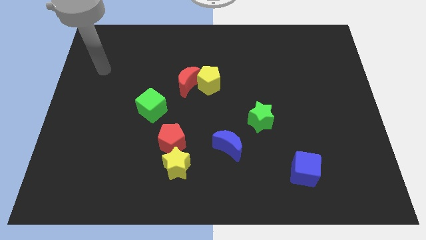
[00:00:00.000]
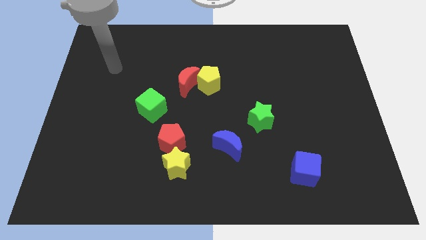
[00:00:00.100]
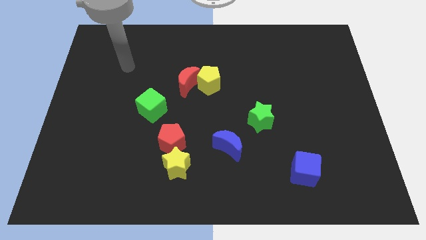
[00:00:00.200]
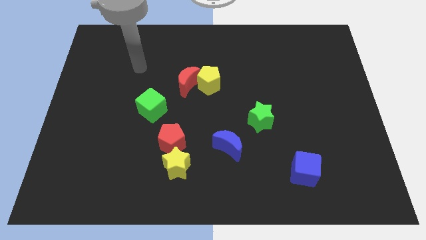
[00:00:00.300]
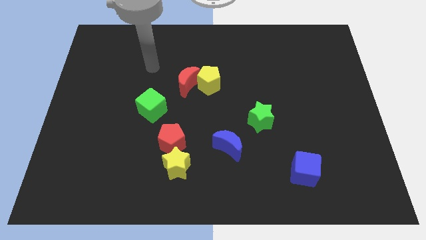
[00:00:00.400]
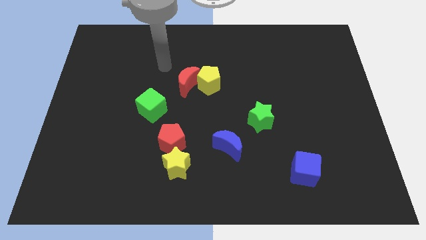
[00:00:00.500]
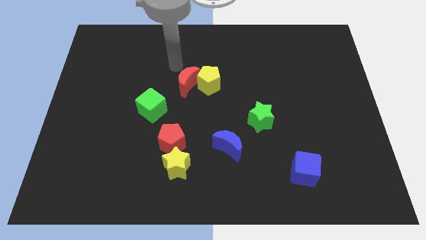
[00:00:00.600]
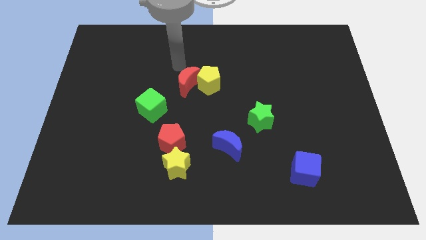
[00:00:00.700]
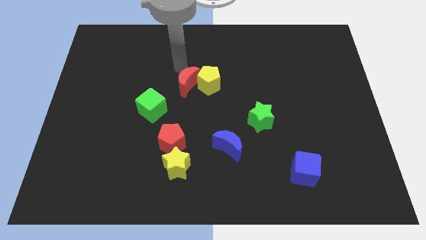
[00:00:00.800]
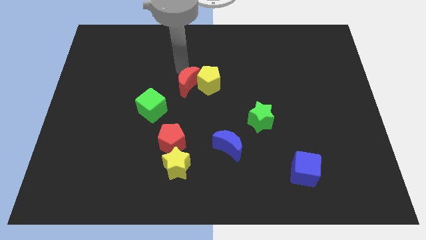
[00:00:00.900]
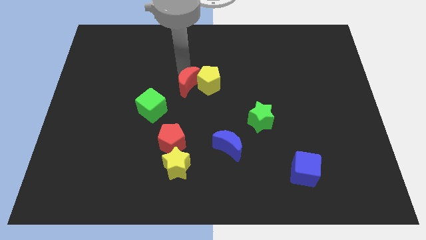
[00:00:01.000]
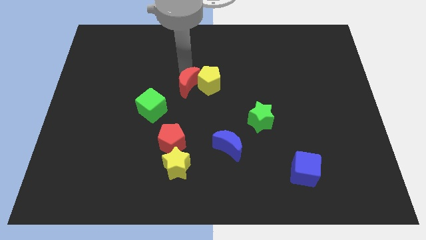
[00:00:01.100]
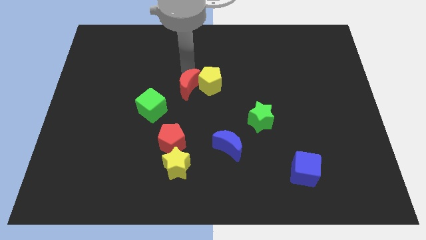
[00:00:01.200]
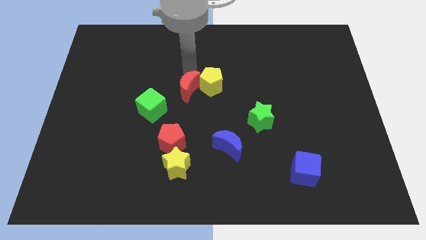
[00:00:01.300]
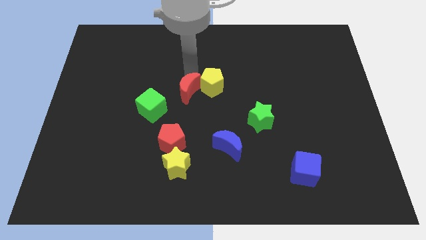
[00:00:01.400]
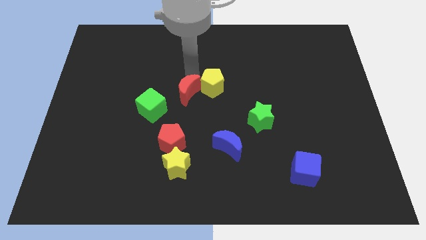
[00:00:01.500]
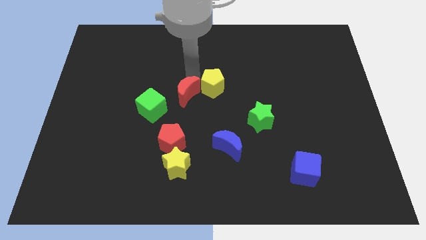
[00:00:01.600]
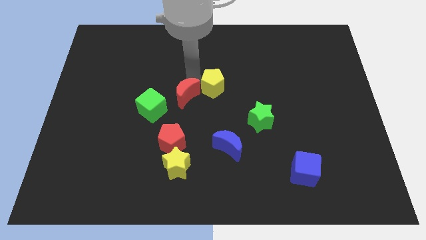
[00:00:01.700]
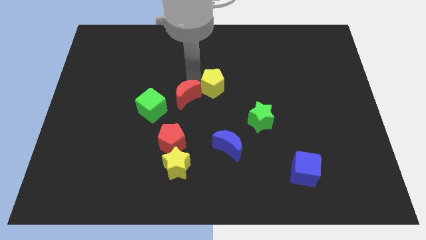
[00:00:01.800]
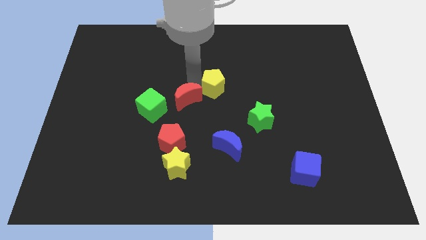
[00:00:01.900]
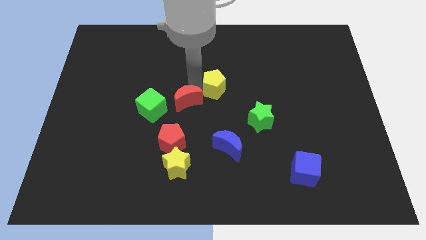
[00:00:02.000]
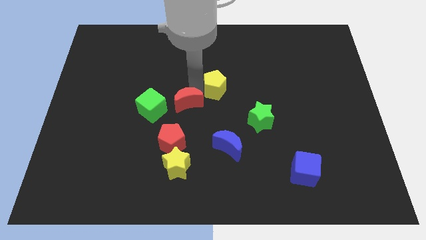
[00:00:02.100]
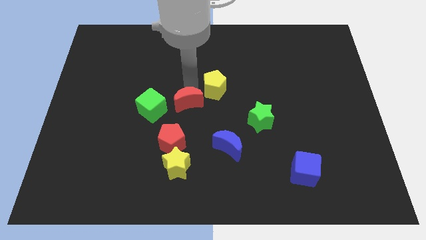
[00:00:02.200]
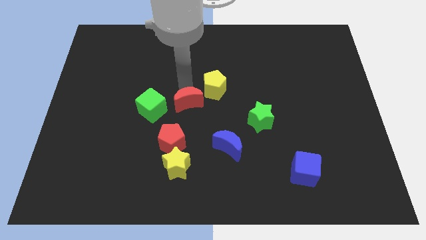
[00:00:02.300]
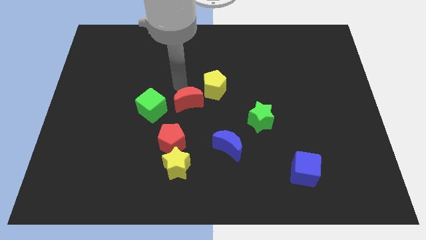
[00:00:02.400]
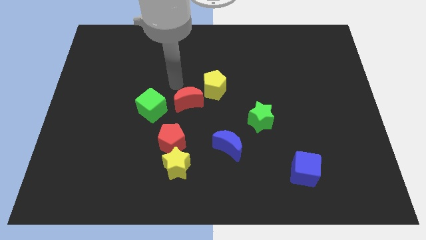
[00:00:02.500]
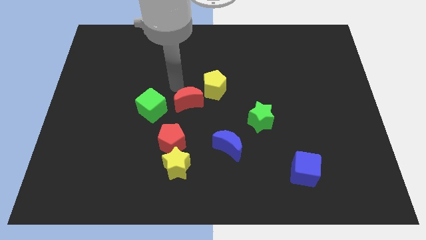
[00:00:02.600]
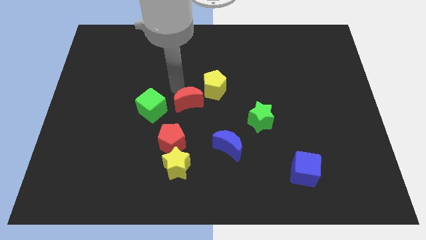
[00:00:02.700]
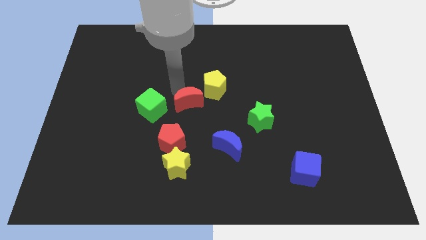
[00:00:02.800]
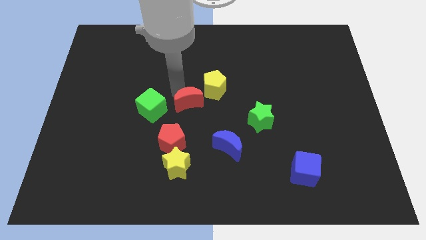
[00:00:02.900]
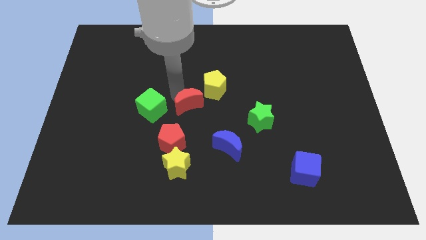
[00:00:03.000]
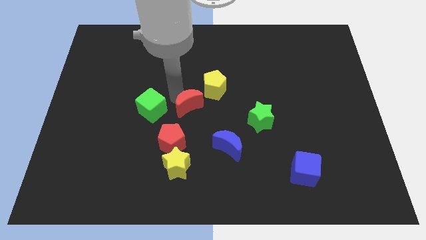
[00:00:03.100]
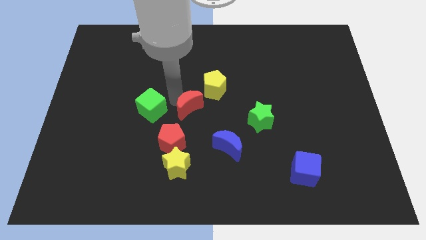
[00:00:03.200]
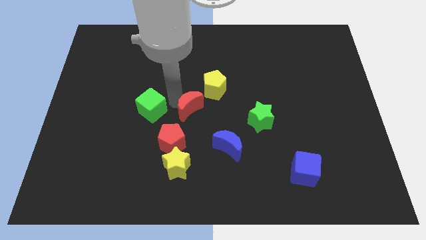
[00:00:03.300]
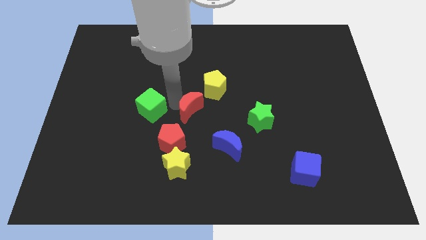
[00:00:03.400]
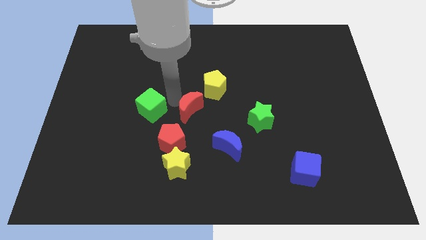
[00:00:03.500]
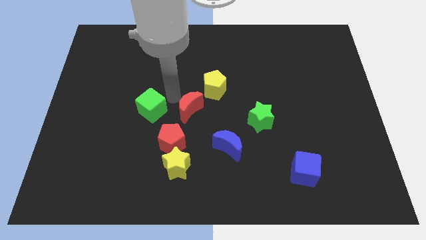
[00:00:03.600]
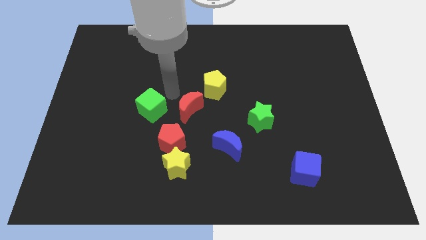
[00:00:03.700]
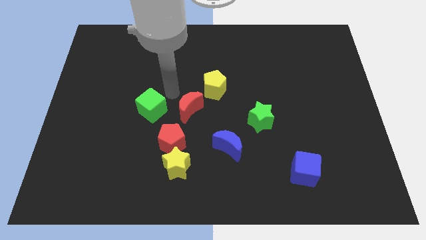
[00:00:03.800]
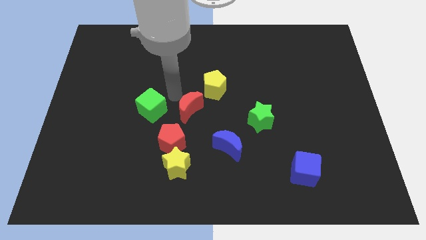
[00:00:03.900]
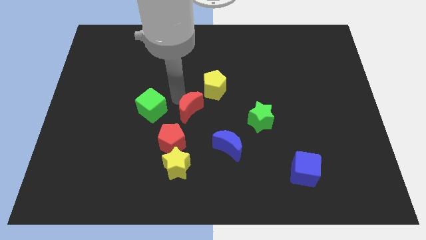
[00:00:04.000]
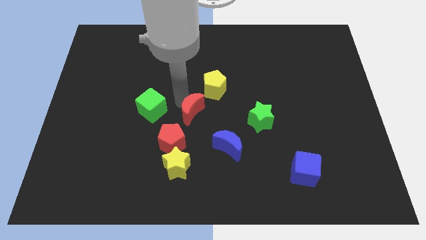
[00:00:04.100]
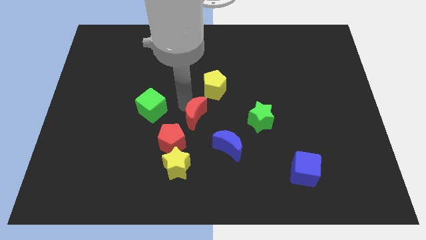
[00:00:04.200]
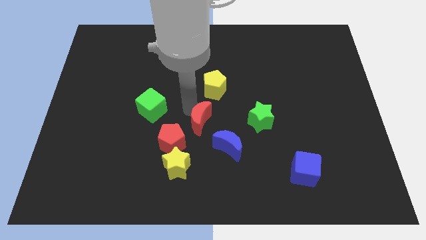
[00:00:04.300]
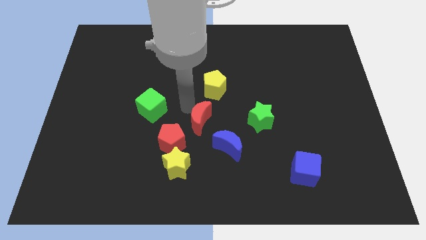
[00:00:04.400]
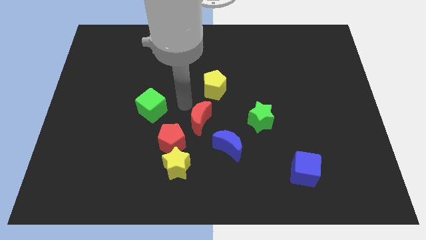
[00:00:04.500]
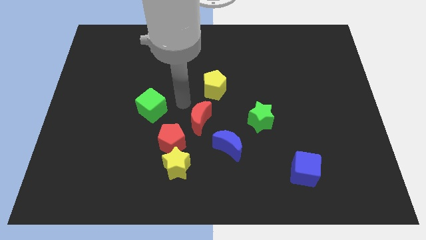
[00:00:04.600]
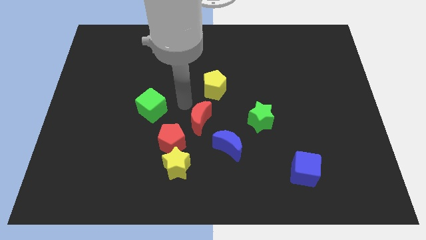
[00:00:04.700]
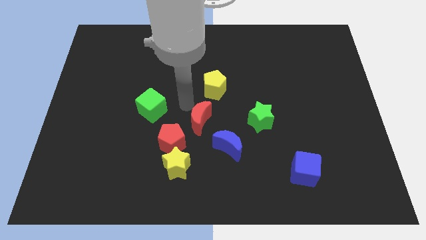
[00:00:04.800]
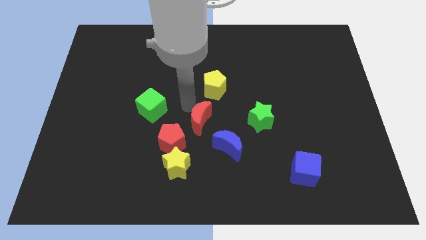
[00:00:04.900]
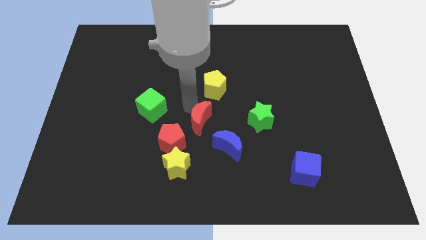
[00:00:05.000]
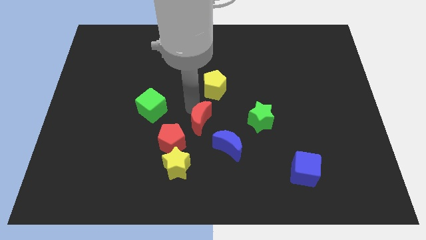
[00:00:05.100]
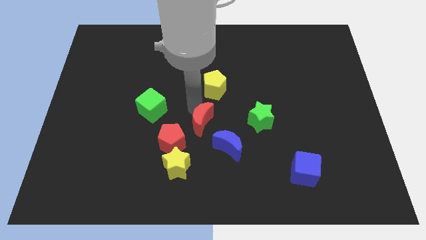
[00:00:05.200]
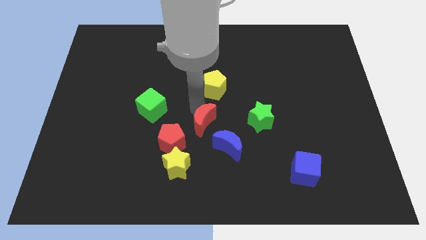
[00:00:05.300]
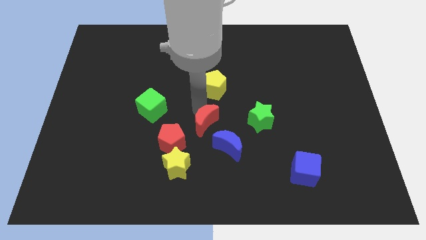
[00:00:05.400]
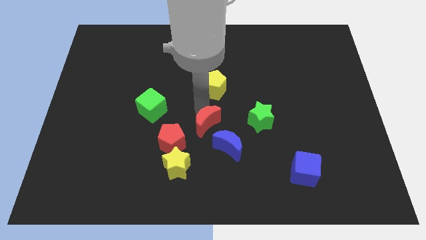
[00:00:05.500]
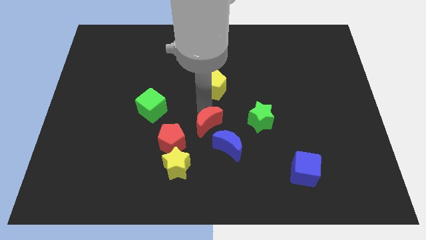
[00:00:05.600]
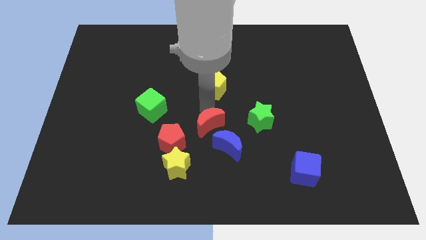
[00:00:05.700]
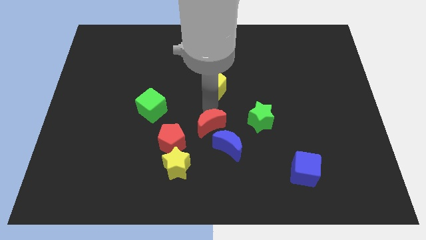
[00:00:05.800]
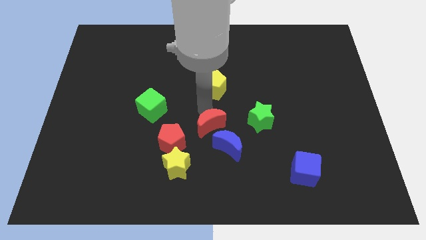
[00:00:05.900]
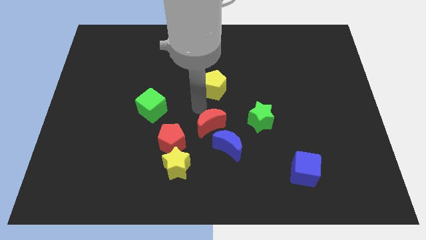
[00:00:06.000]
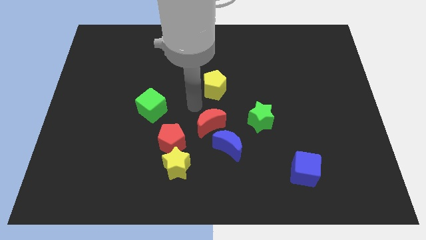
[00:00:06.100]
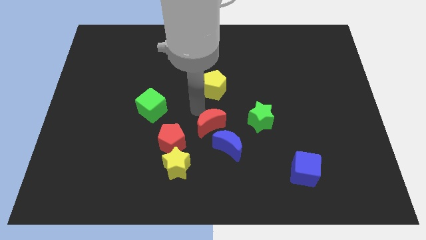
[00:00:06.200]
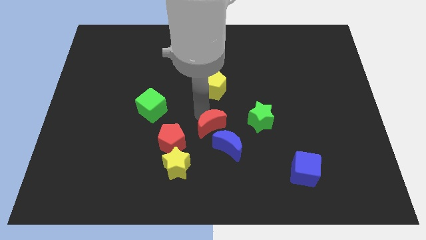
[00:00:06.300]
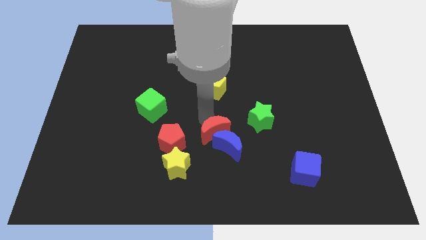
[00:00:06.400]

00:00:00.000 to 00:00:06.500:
move the red moon next to the blue moon

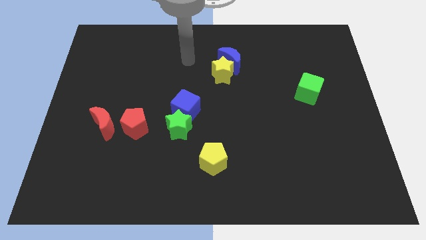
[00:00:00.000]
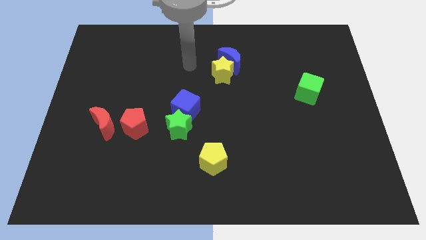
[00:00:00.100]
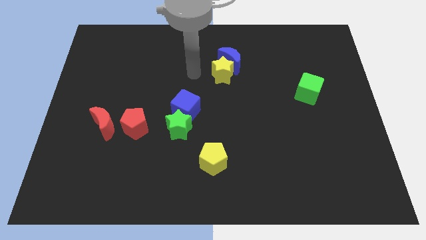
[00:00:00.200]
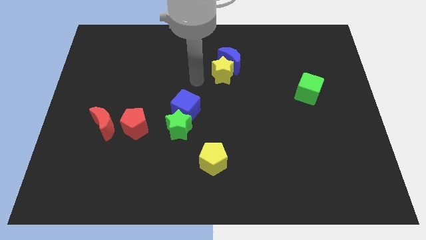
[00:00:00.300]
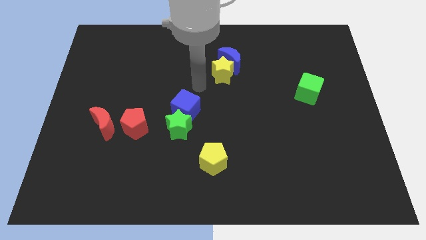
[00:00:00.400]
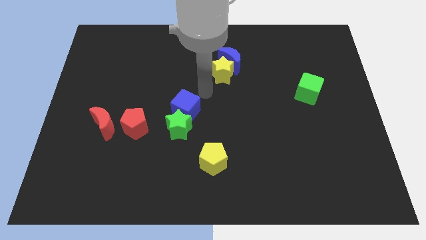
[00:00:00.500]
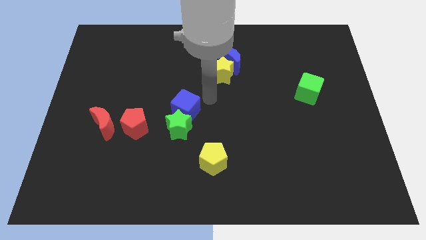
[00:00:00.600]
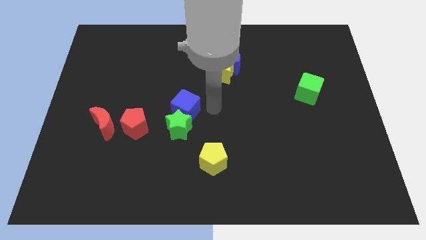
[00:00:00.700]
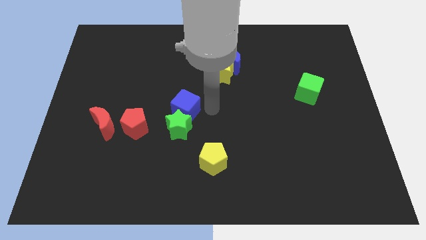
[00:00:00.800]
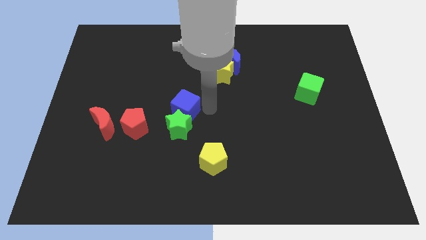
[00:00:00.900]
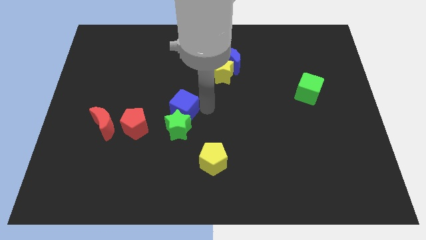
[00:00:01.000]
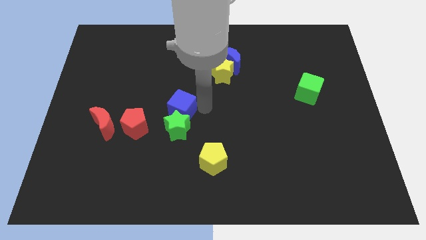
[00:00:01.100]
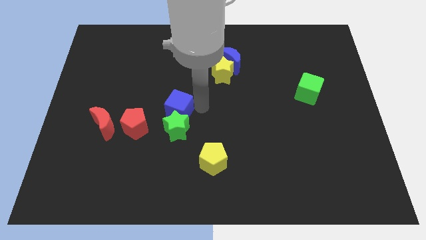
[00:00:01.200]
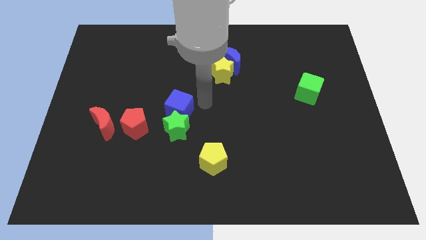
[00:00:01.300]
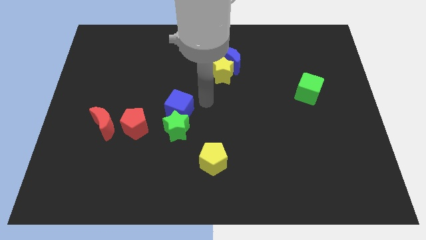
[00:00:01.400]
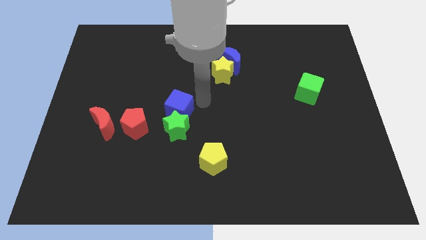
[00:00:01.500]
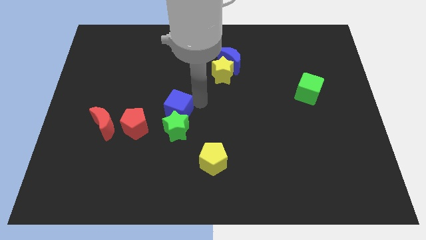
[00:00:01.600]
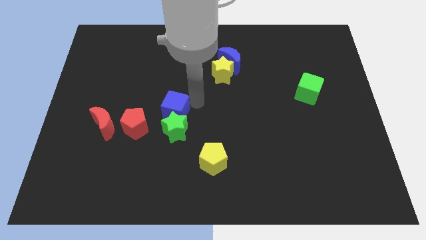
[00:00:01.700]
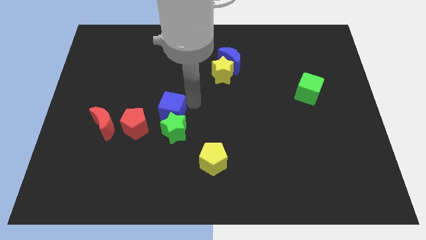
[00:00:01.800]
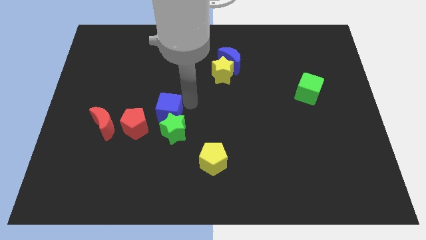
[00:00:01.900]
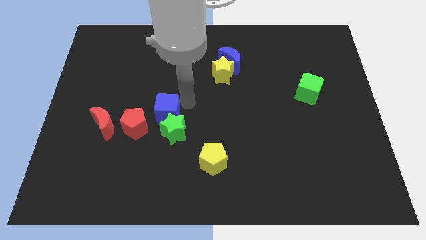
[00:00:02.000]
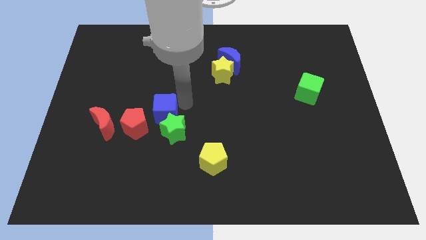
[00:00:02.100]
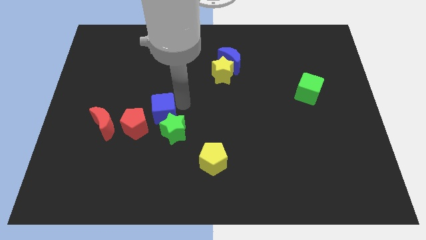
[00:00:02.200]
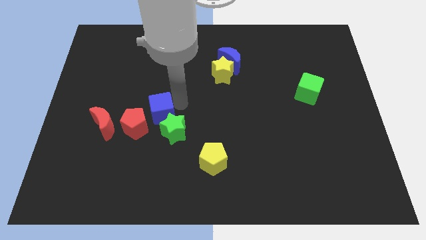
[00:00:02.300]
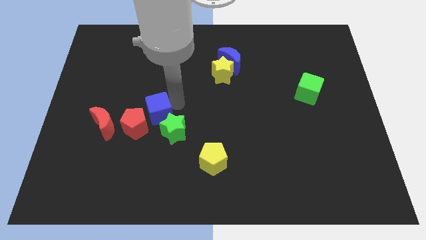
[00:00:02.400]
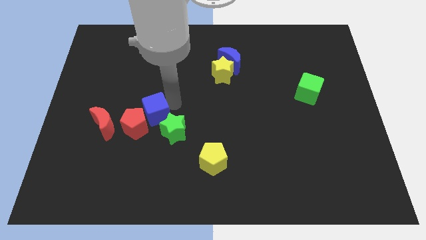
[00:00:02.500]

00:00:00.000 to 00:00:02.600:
slide the blue cube towards the red pentagon
